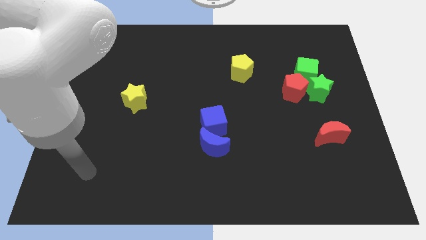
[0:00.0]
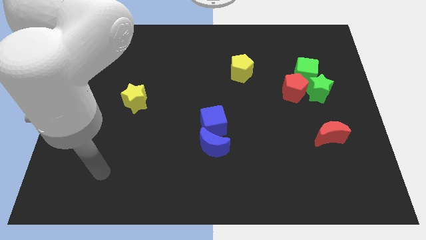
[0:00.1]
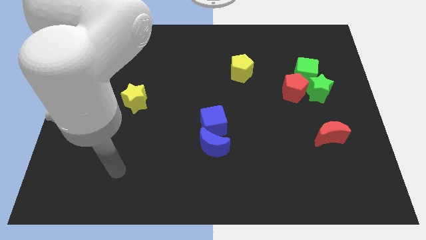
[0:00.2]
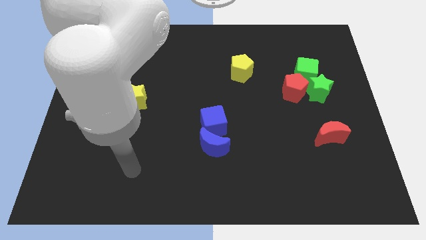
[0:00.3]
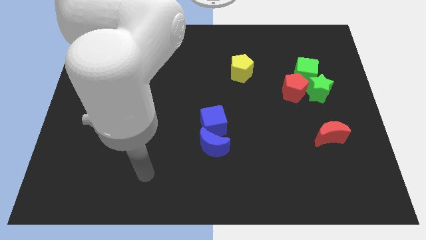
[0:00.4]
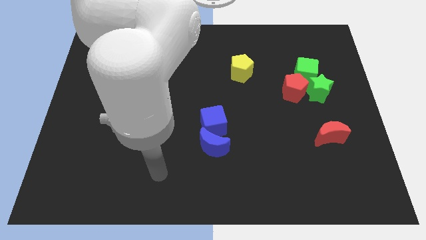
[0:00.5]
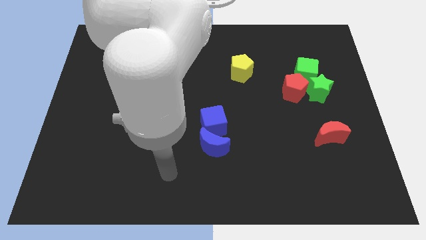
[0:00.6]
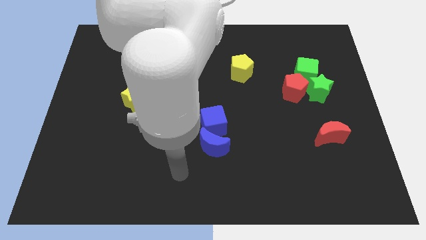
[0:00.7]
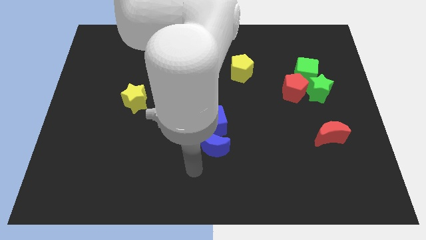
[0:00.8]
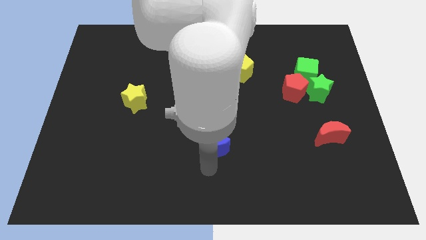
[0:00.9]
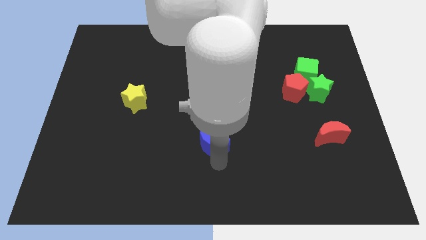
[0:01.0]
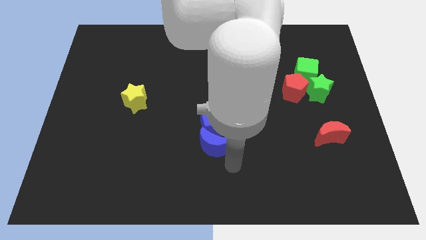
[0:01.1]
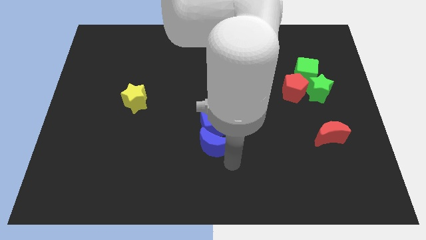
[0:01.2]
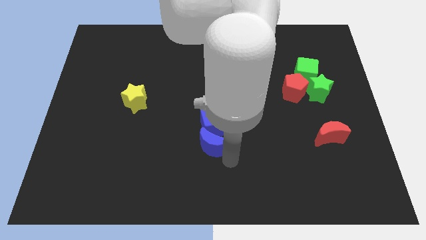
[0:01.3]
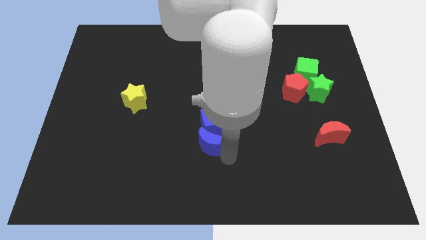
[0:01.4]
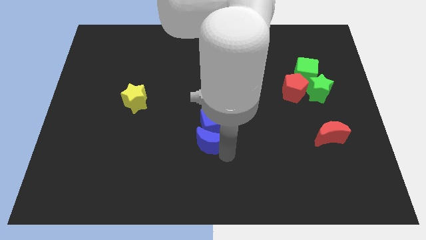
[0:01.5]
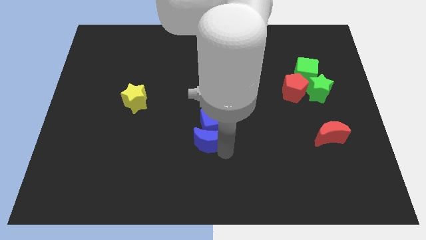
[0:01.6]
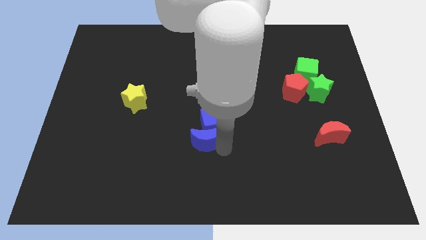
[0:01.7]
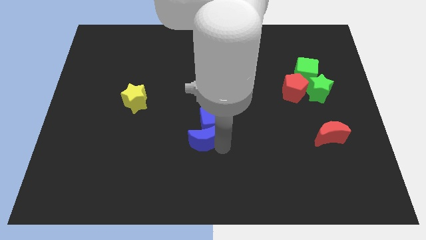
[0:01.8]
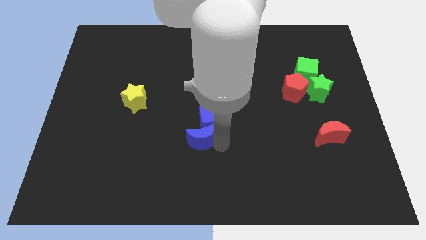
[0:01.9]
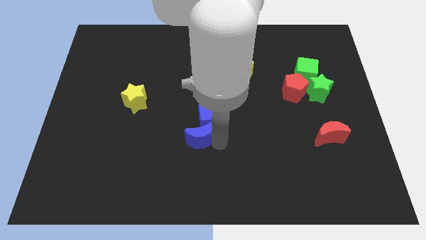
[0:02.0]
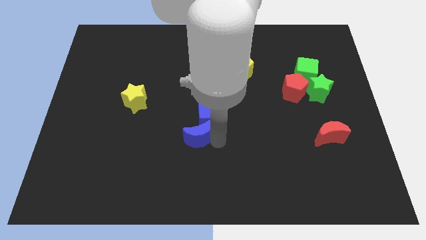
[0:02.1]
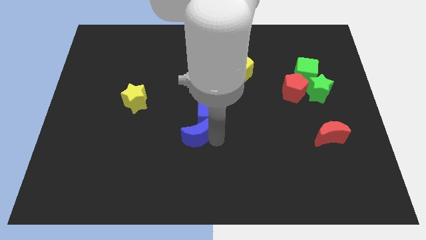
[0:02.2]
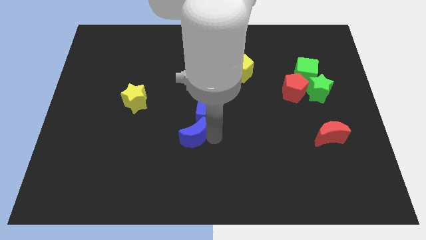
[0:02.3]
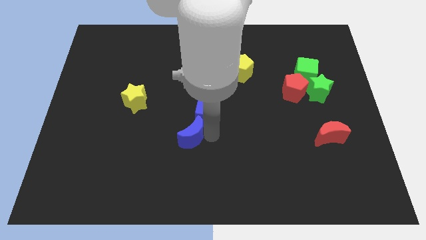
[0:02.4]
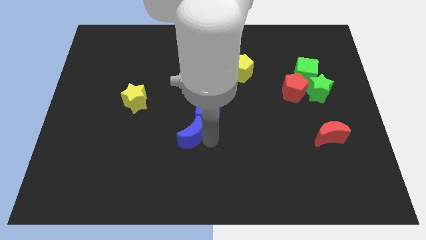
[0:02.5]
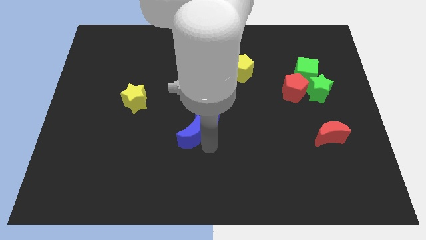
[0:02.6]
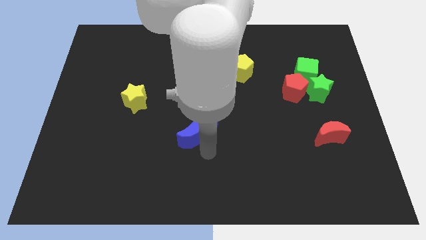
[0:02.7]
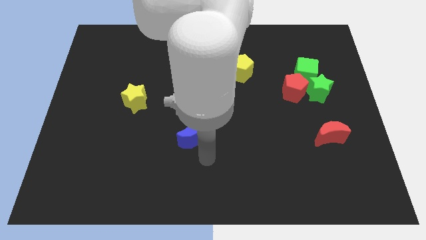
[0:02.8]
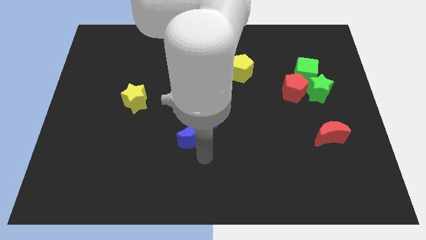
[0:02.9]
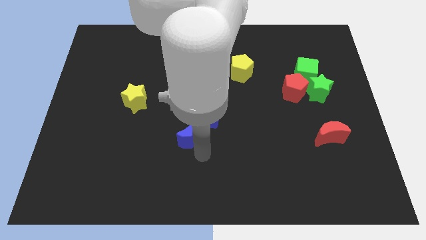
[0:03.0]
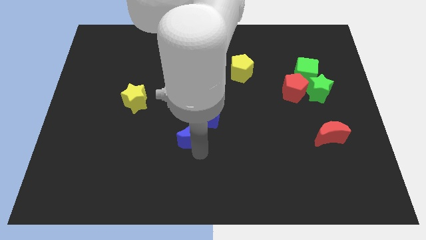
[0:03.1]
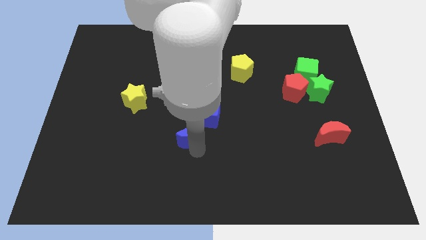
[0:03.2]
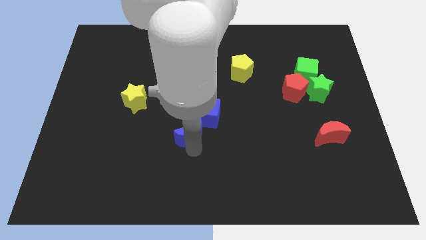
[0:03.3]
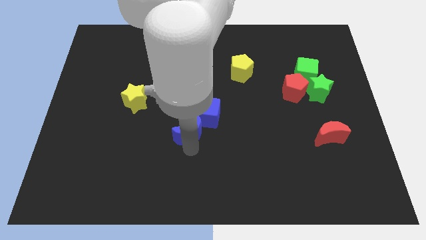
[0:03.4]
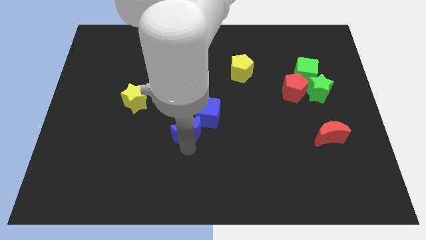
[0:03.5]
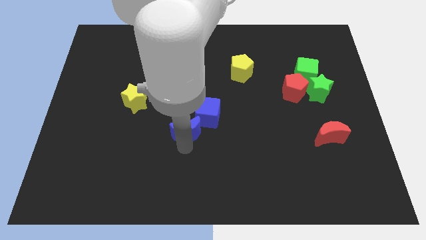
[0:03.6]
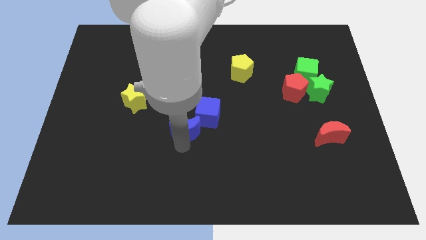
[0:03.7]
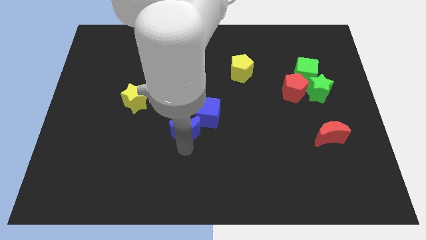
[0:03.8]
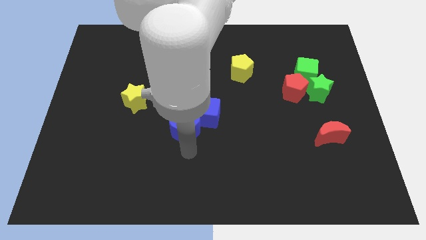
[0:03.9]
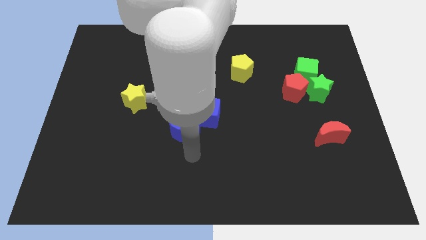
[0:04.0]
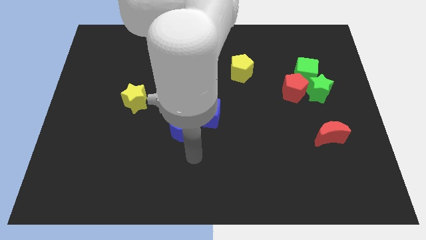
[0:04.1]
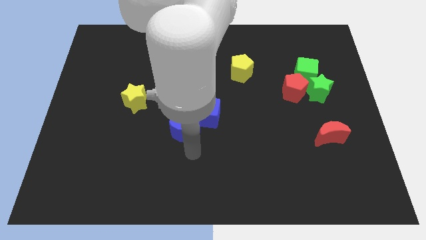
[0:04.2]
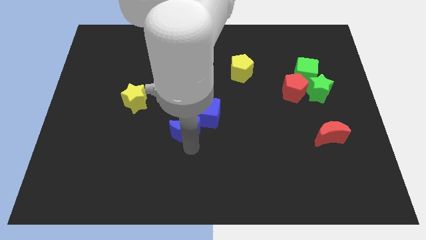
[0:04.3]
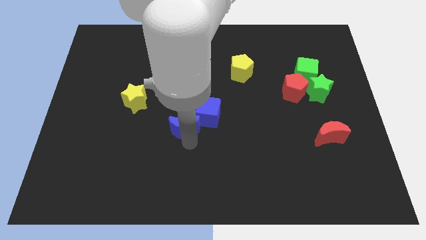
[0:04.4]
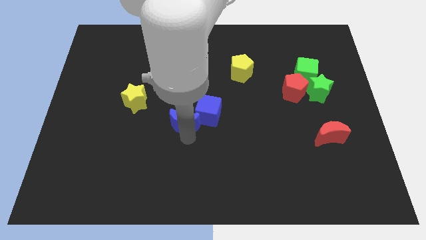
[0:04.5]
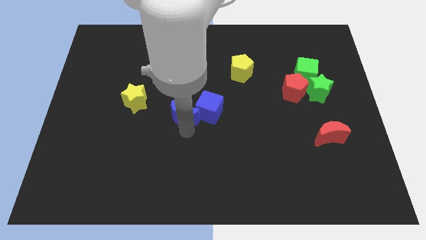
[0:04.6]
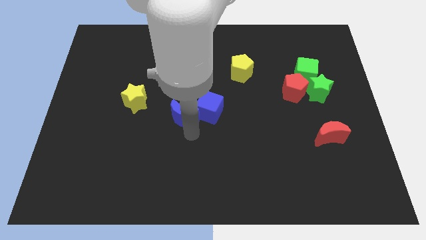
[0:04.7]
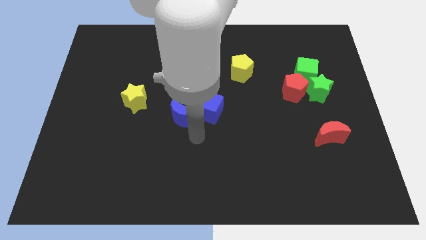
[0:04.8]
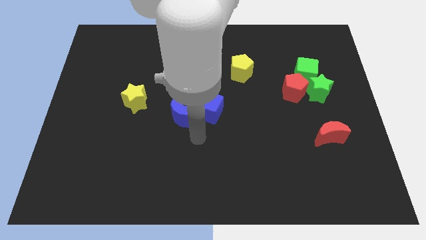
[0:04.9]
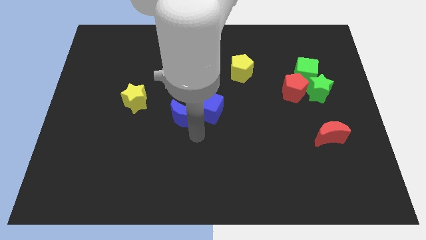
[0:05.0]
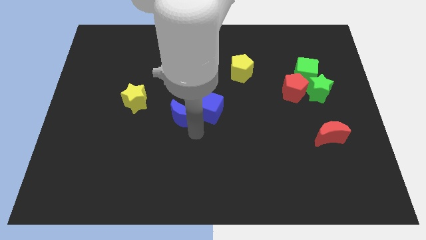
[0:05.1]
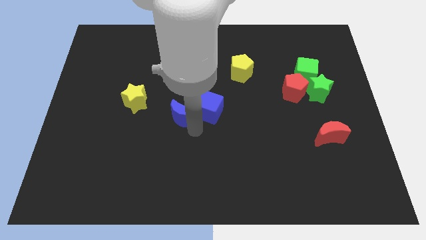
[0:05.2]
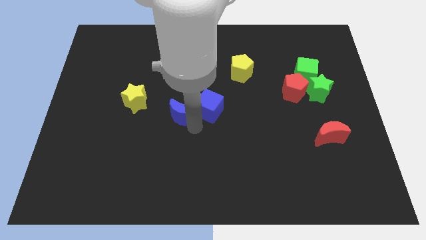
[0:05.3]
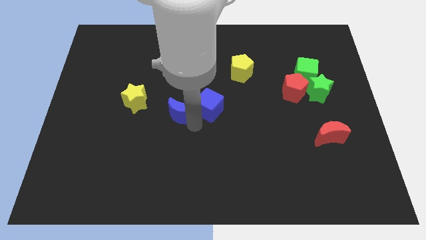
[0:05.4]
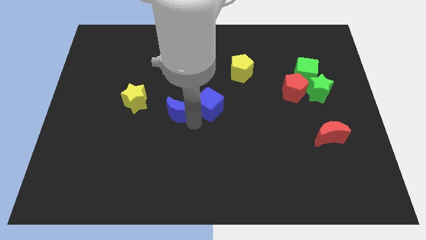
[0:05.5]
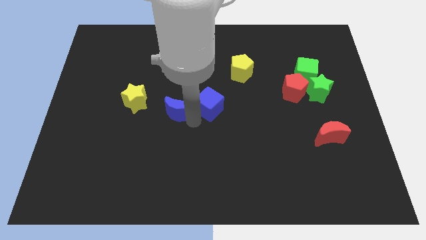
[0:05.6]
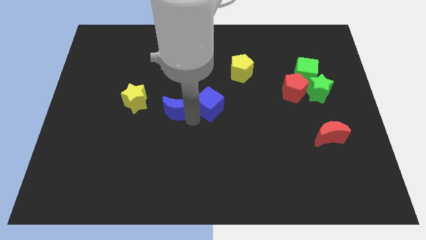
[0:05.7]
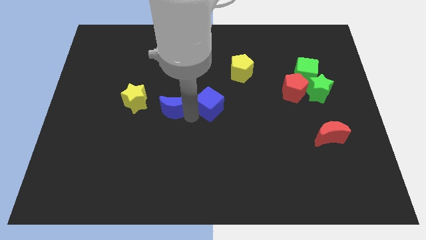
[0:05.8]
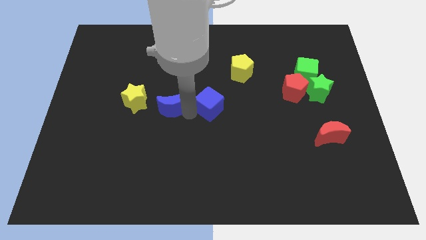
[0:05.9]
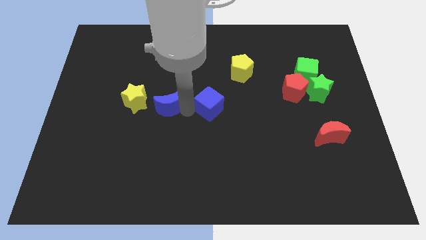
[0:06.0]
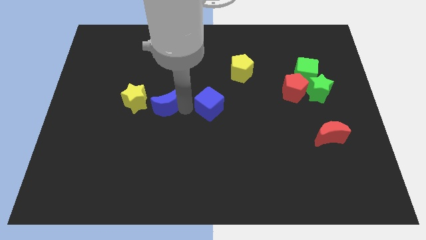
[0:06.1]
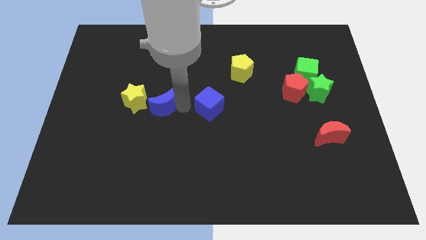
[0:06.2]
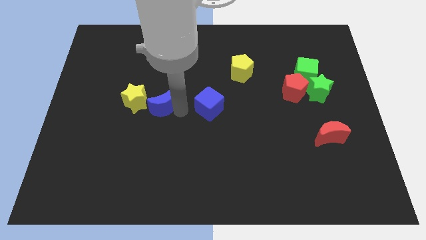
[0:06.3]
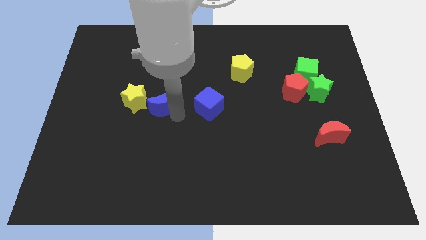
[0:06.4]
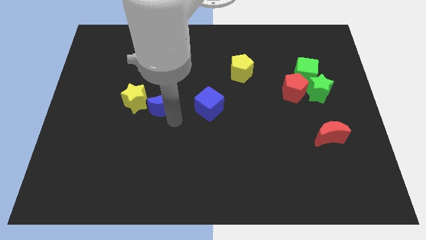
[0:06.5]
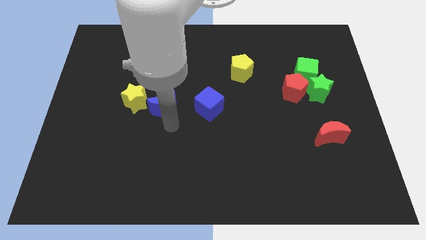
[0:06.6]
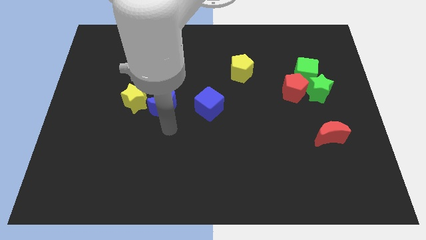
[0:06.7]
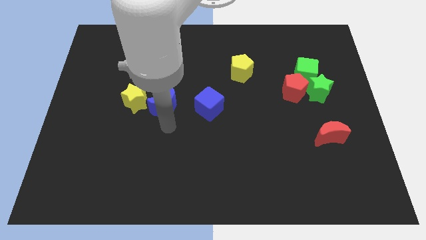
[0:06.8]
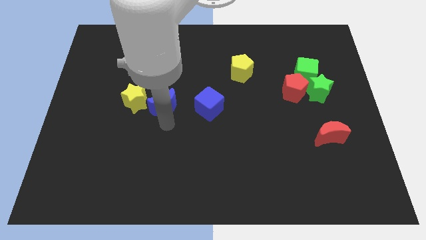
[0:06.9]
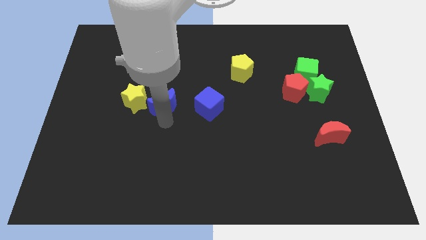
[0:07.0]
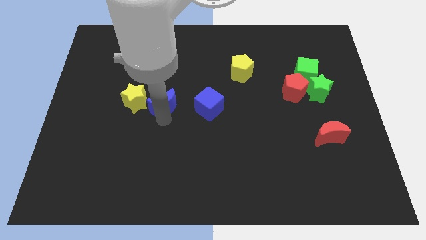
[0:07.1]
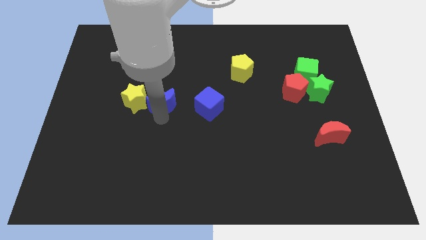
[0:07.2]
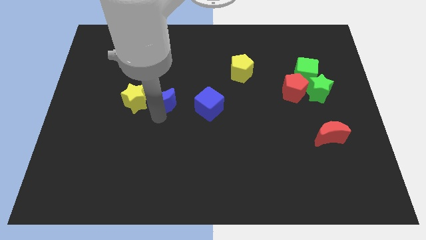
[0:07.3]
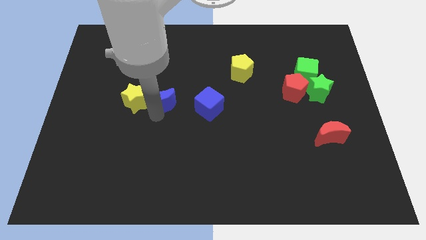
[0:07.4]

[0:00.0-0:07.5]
push the blue moon diagonally up and to the right of the yellow star
